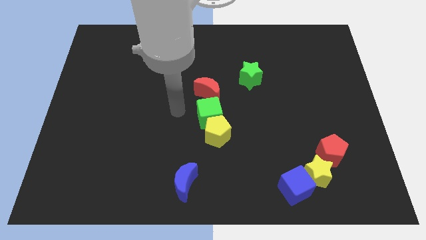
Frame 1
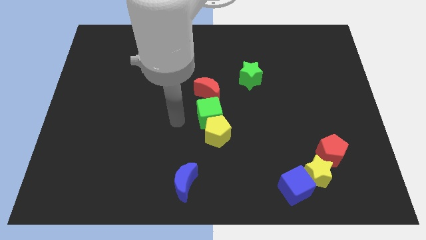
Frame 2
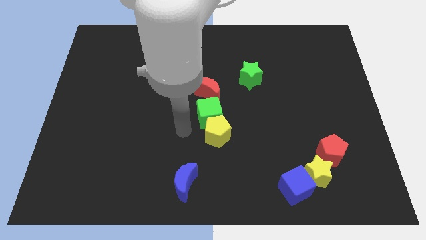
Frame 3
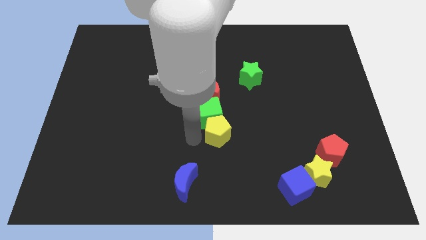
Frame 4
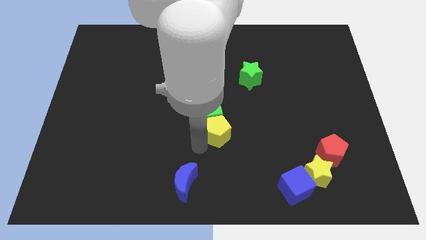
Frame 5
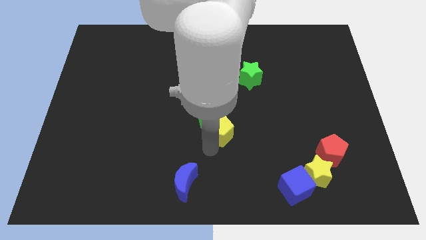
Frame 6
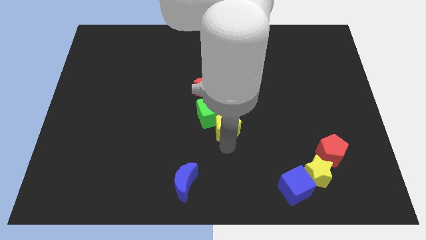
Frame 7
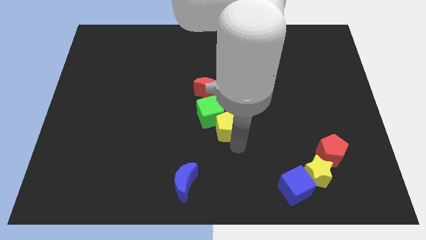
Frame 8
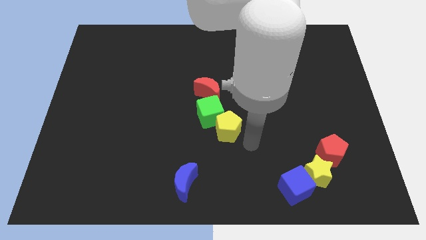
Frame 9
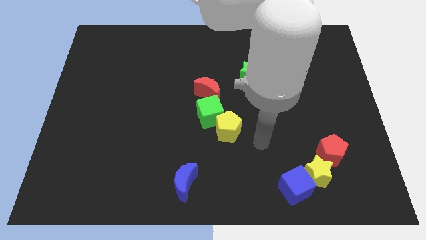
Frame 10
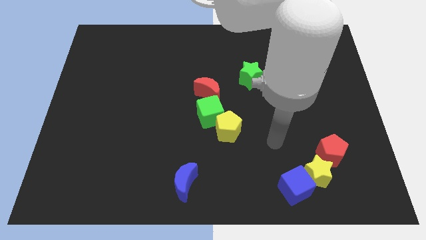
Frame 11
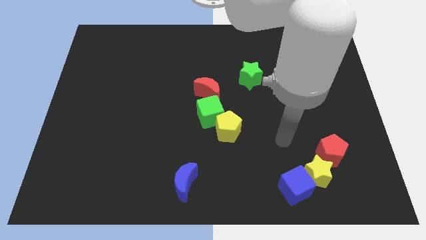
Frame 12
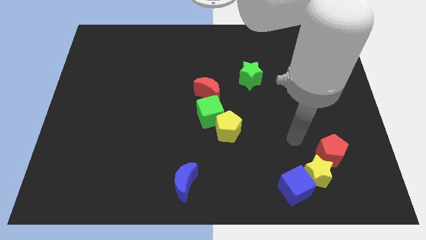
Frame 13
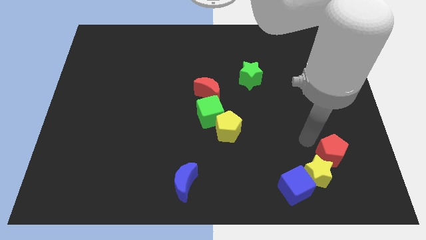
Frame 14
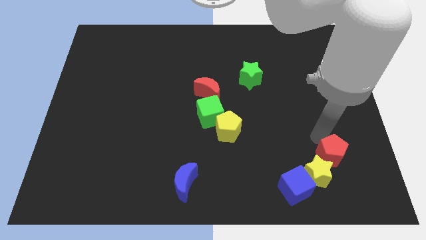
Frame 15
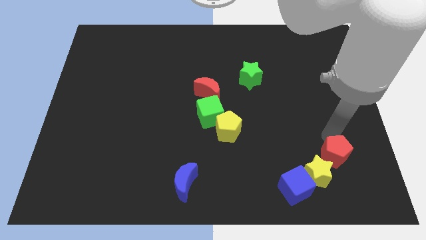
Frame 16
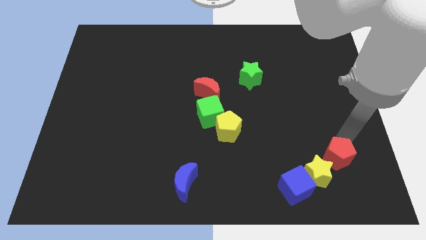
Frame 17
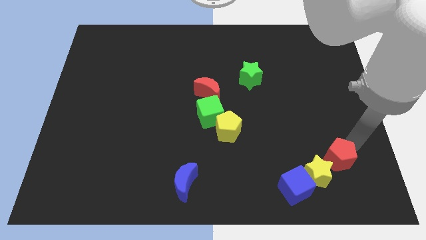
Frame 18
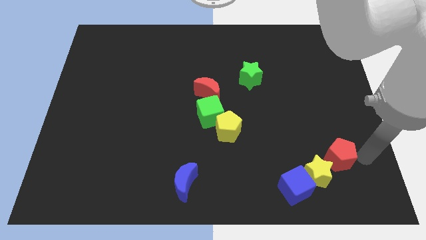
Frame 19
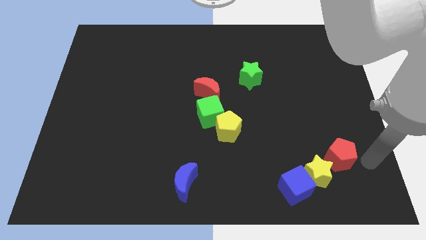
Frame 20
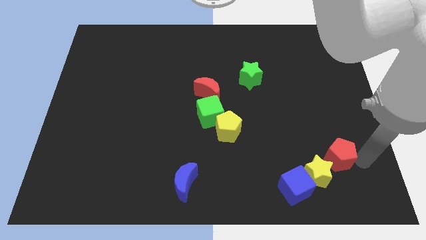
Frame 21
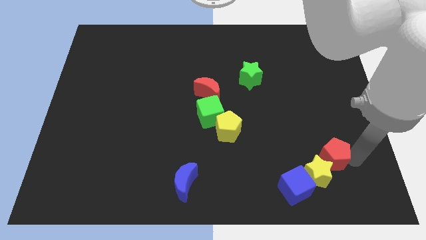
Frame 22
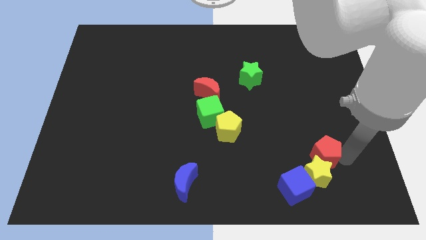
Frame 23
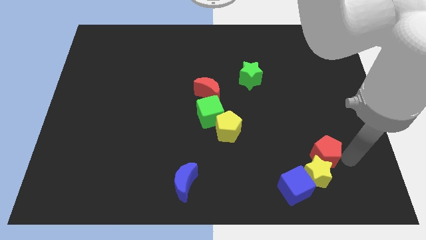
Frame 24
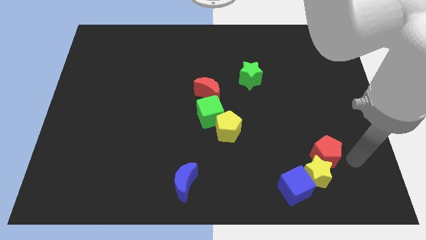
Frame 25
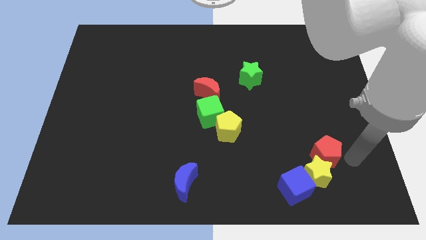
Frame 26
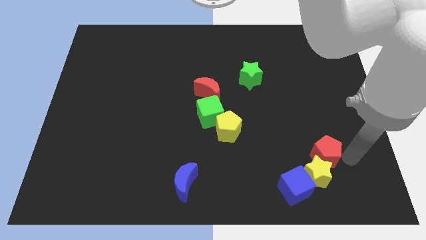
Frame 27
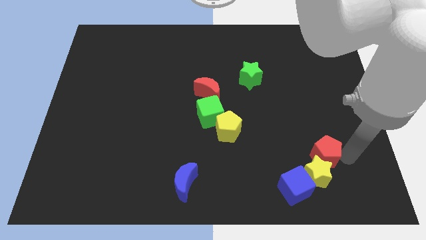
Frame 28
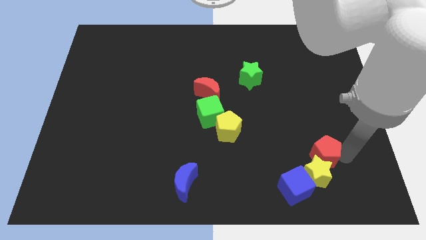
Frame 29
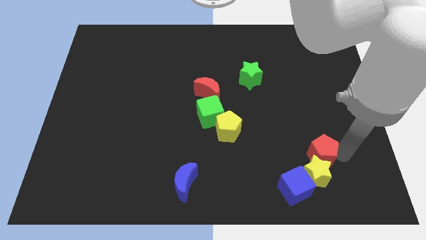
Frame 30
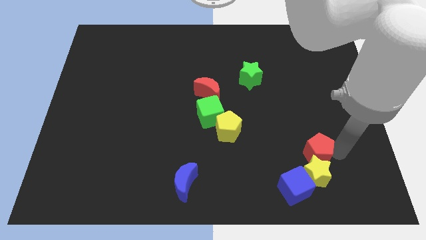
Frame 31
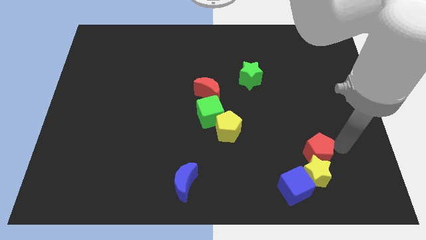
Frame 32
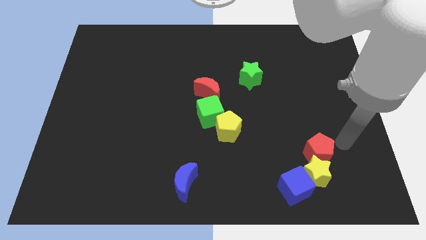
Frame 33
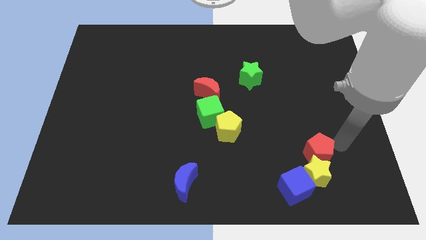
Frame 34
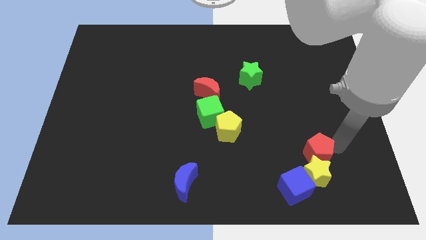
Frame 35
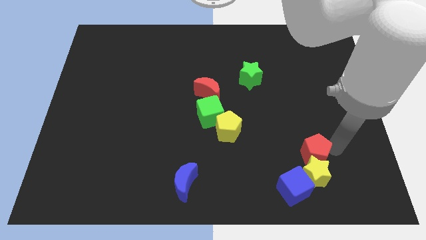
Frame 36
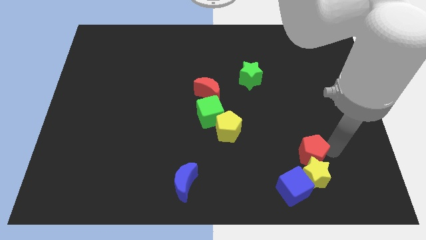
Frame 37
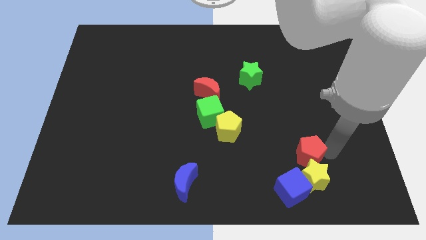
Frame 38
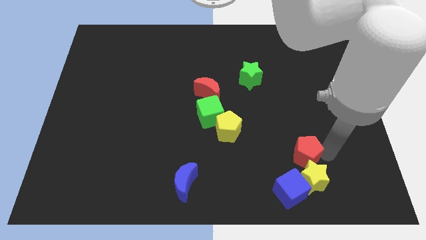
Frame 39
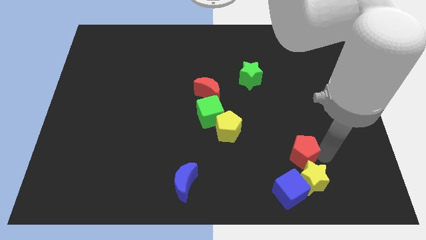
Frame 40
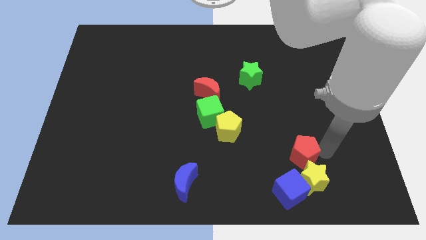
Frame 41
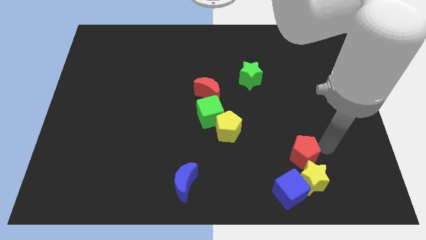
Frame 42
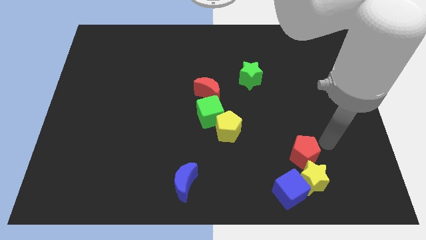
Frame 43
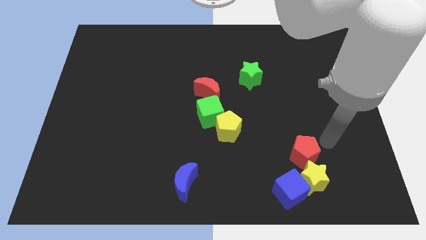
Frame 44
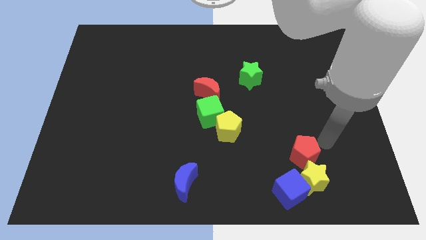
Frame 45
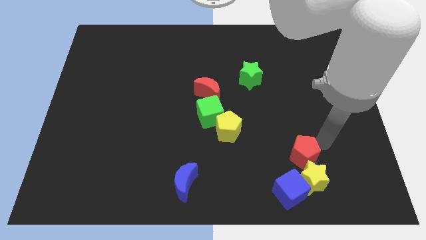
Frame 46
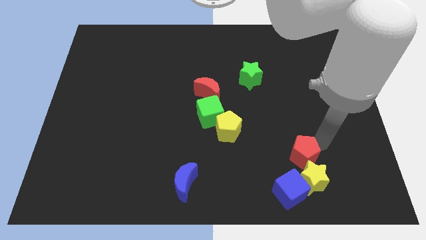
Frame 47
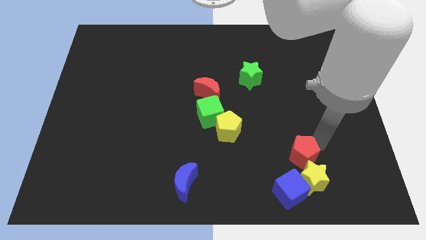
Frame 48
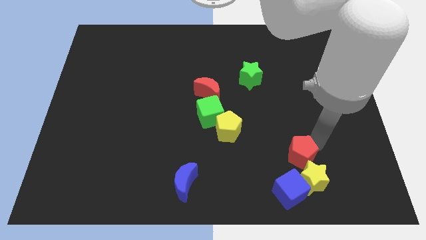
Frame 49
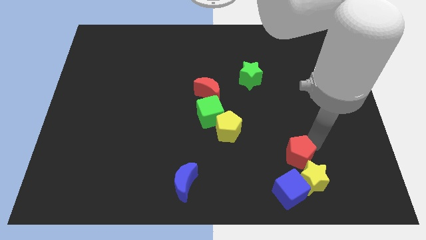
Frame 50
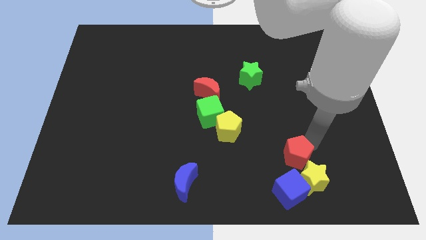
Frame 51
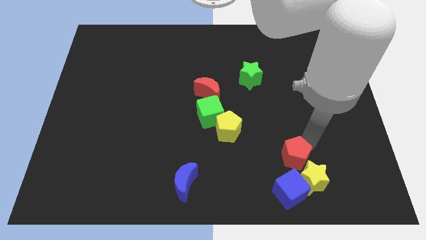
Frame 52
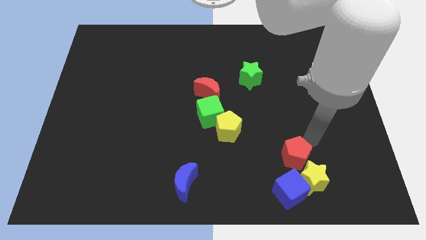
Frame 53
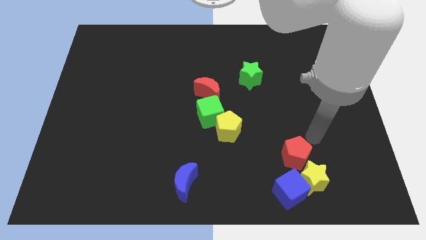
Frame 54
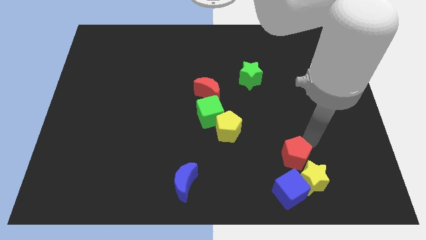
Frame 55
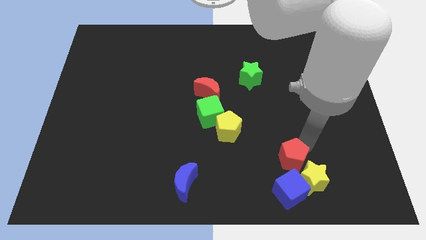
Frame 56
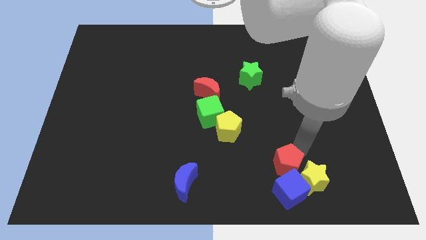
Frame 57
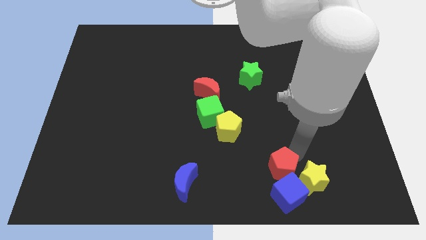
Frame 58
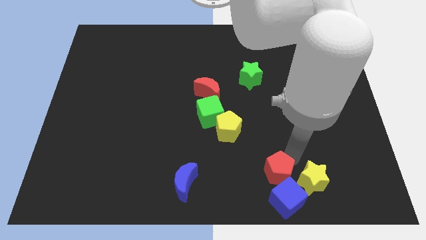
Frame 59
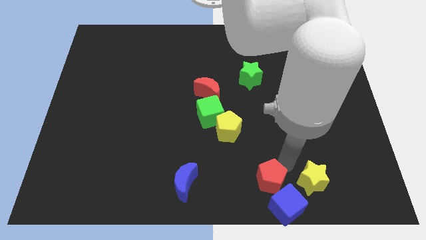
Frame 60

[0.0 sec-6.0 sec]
move the red pentagon to the bottom side
